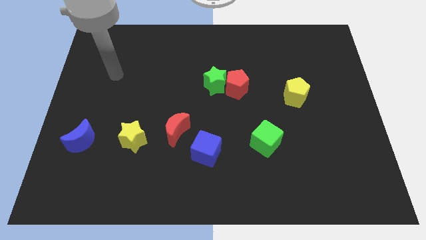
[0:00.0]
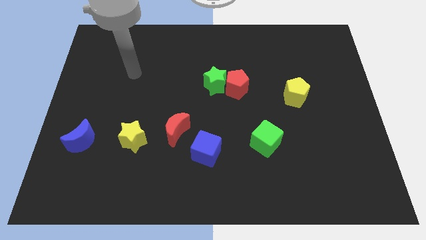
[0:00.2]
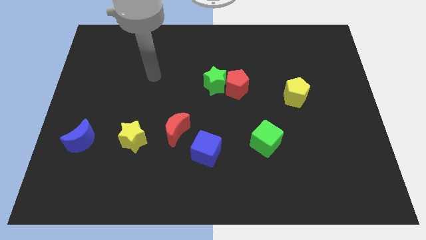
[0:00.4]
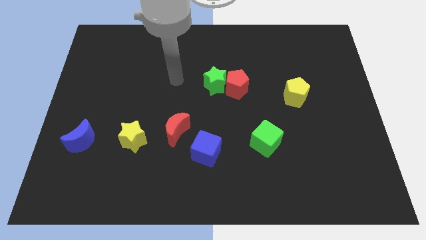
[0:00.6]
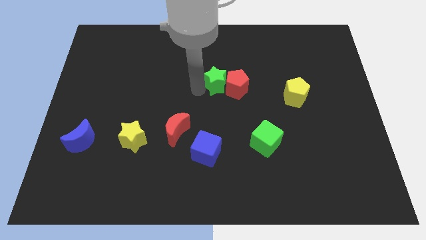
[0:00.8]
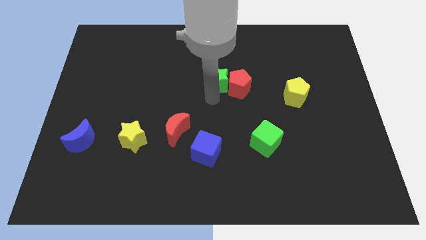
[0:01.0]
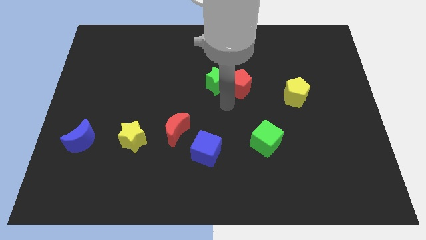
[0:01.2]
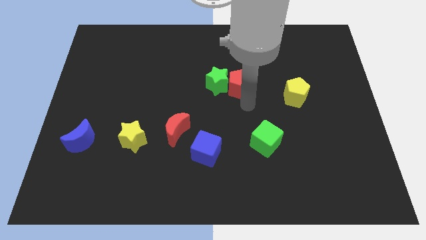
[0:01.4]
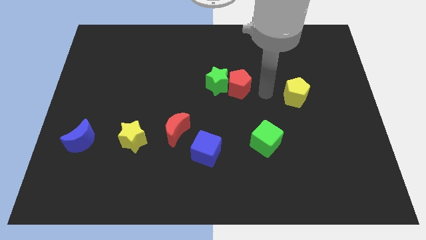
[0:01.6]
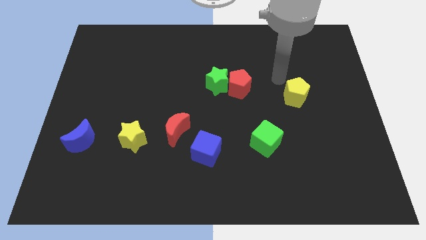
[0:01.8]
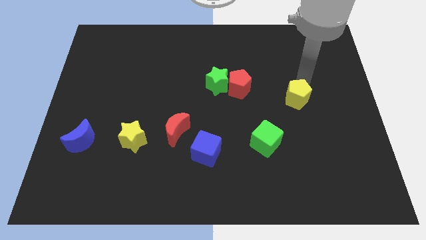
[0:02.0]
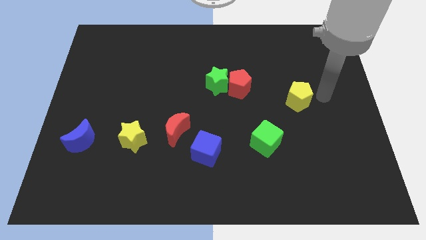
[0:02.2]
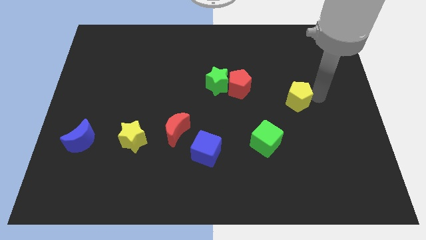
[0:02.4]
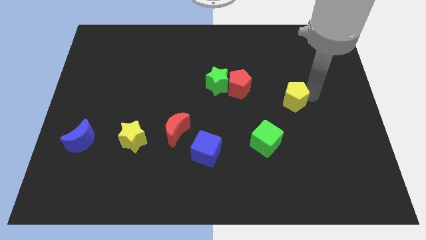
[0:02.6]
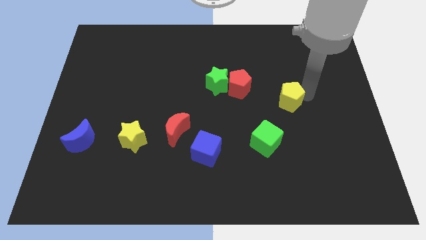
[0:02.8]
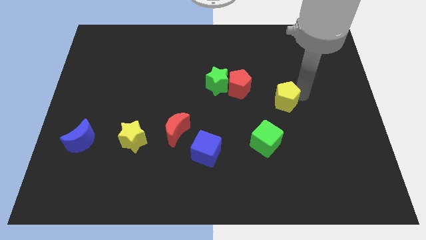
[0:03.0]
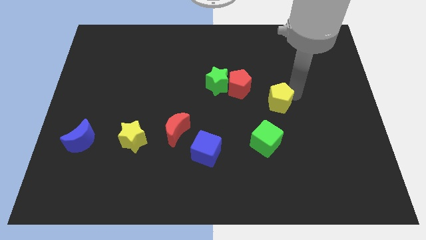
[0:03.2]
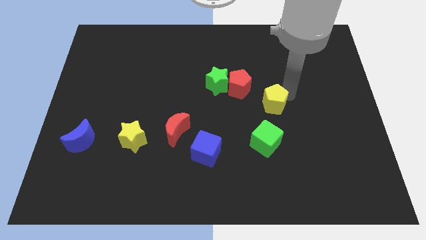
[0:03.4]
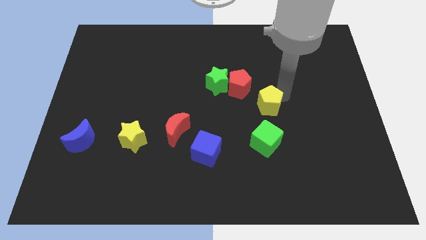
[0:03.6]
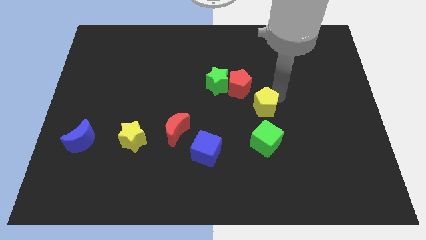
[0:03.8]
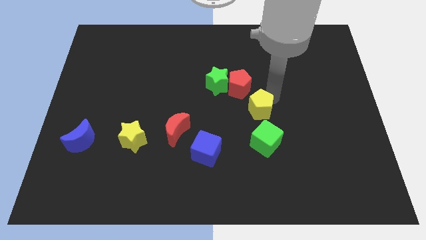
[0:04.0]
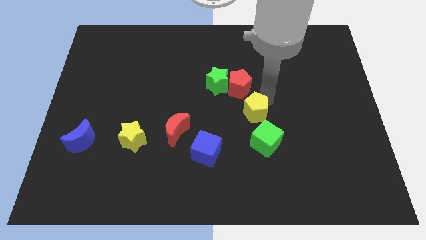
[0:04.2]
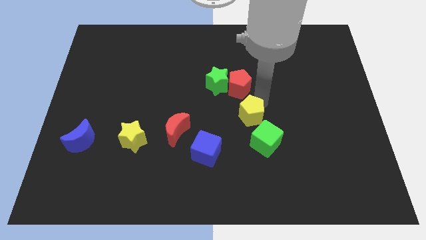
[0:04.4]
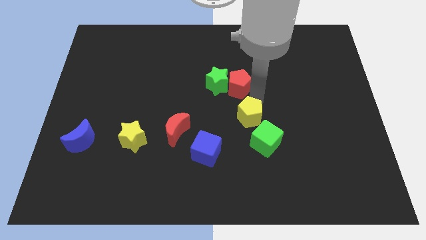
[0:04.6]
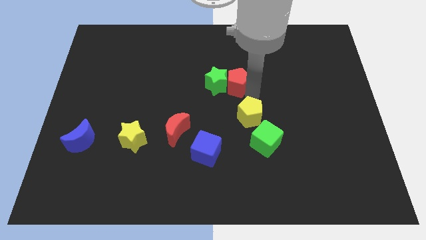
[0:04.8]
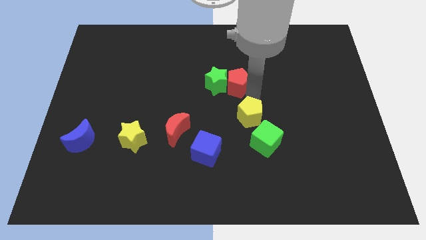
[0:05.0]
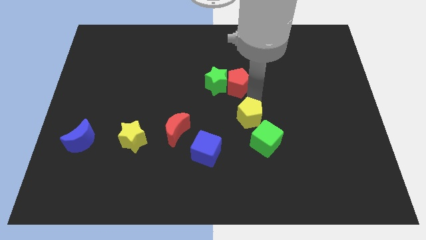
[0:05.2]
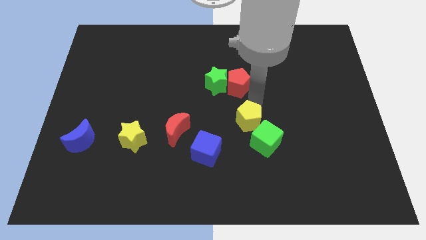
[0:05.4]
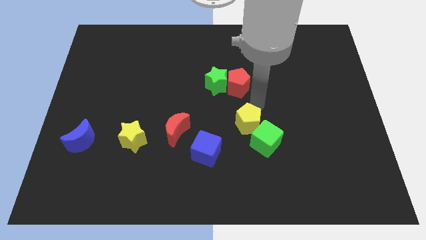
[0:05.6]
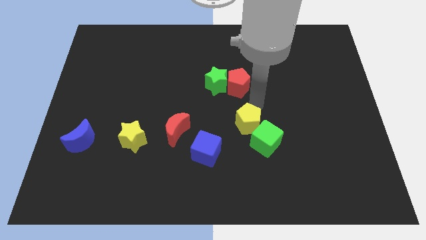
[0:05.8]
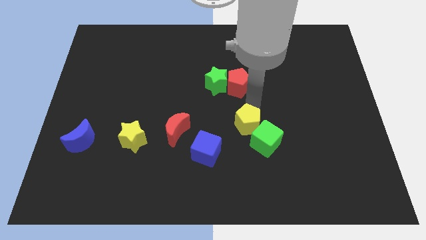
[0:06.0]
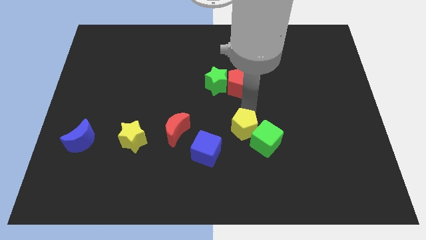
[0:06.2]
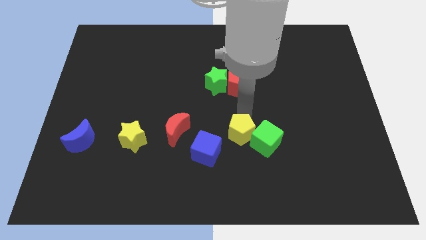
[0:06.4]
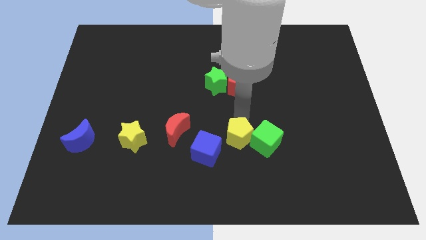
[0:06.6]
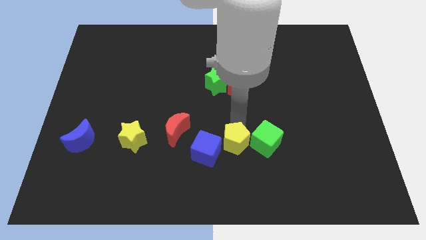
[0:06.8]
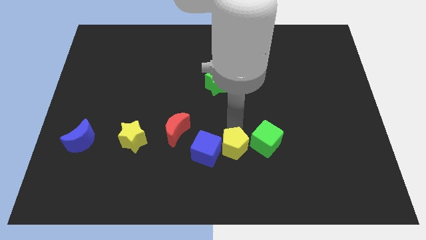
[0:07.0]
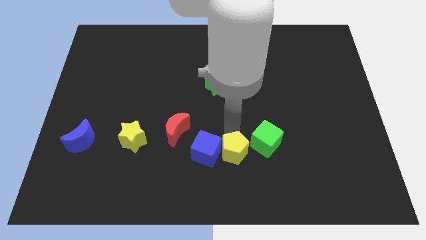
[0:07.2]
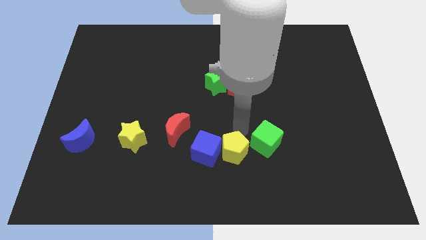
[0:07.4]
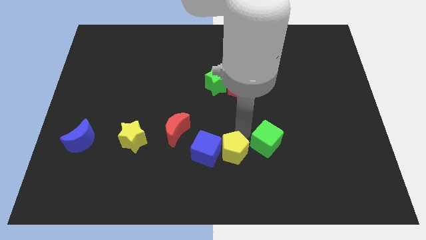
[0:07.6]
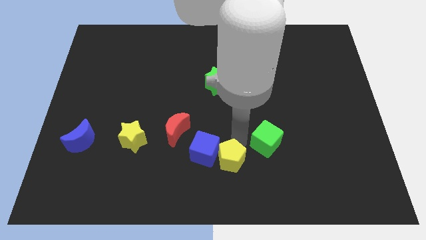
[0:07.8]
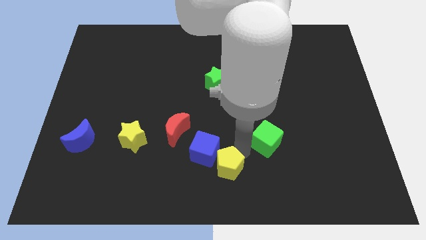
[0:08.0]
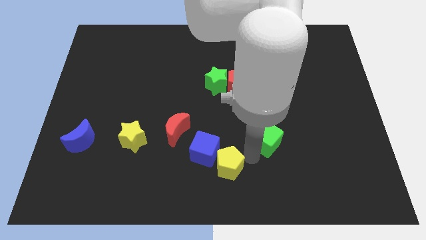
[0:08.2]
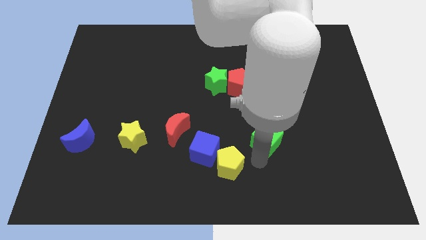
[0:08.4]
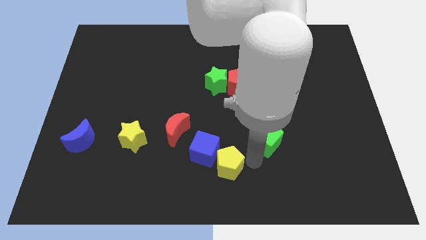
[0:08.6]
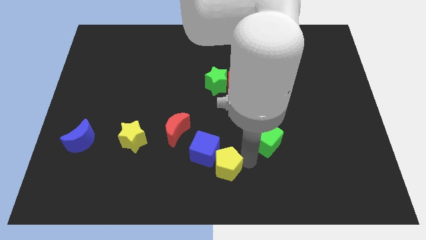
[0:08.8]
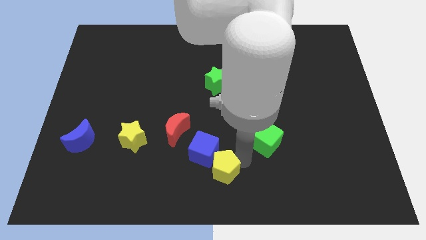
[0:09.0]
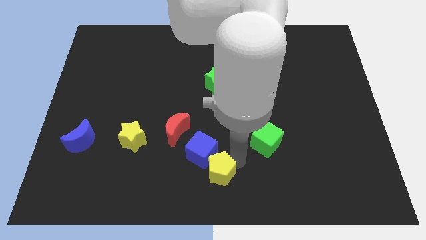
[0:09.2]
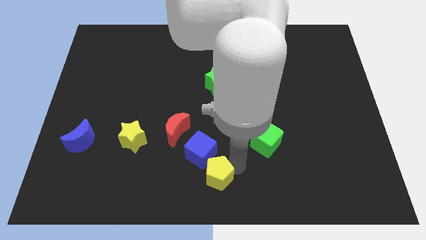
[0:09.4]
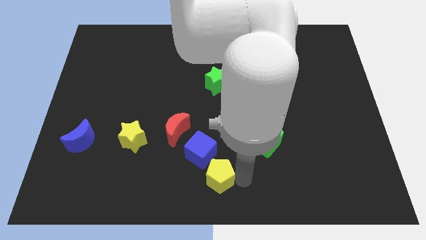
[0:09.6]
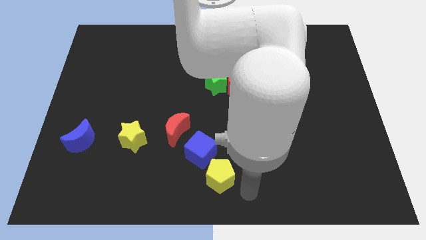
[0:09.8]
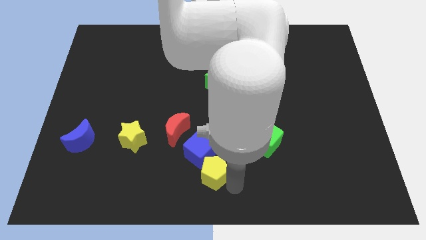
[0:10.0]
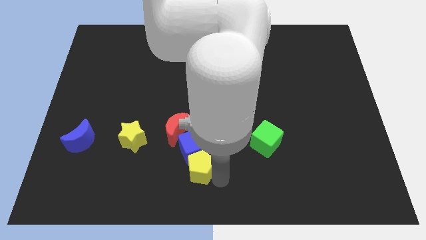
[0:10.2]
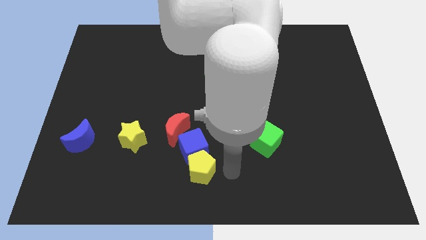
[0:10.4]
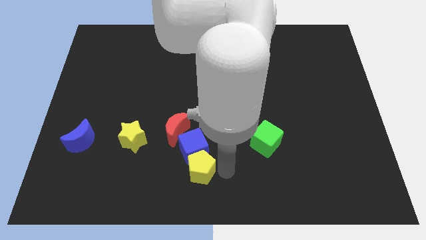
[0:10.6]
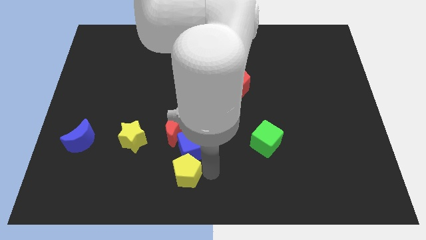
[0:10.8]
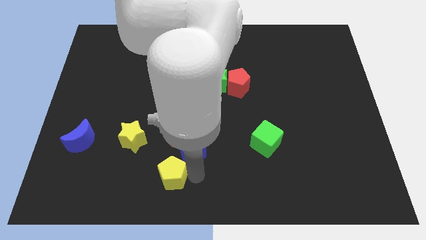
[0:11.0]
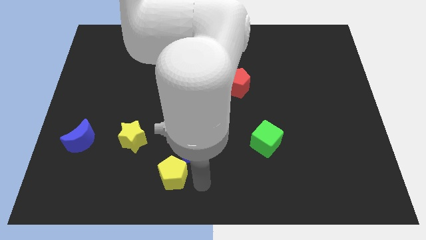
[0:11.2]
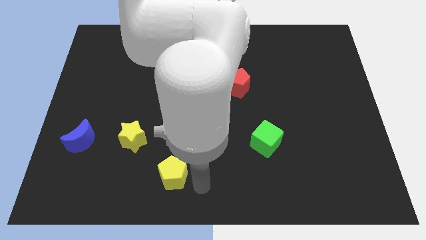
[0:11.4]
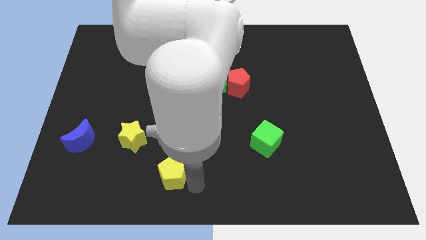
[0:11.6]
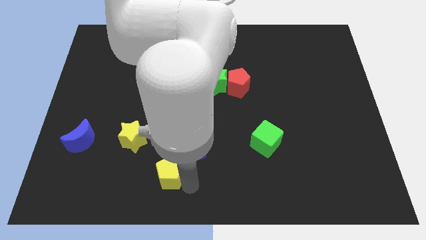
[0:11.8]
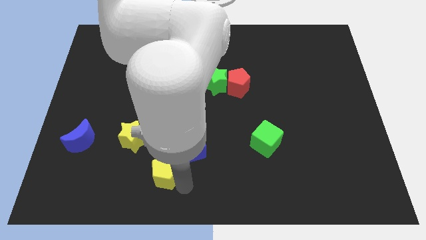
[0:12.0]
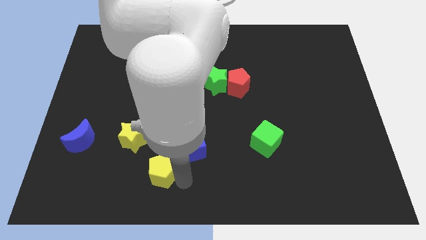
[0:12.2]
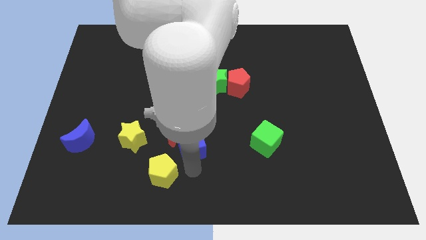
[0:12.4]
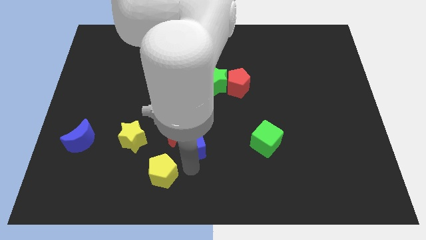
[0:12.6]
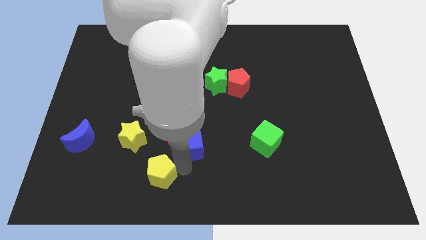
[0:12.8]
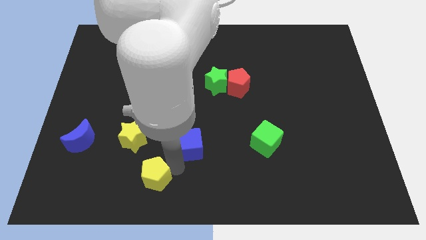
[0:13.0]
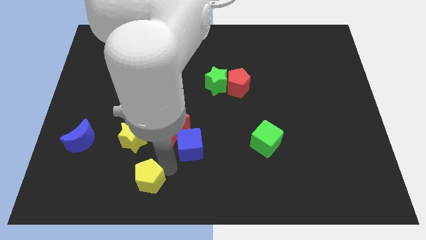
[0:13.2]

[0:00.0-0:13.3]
move the yellow pentagon below the yellow star
